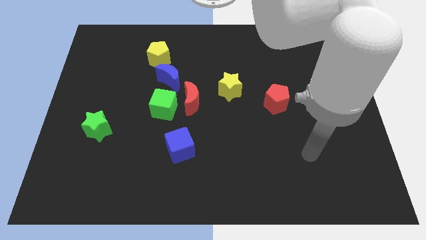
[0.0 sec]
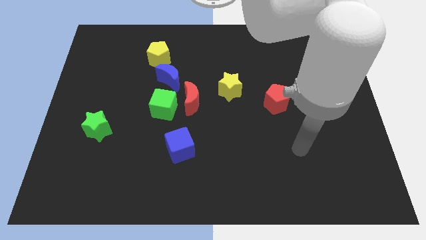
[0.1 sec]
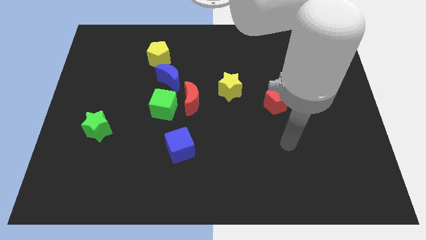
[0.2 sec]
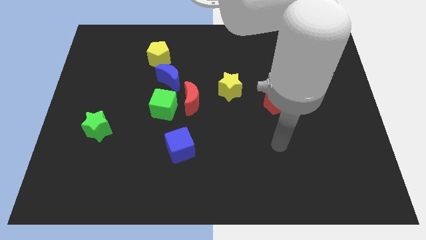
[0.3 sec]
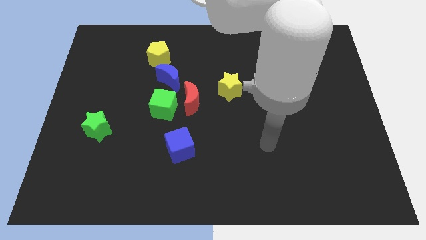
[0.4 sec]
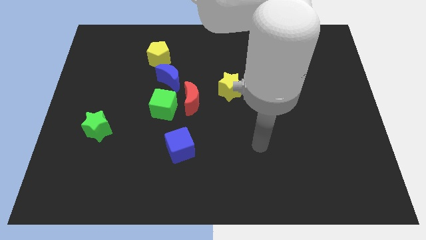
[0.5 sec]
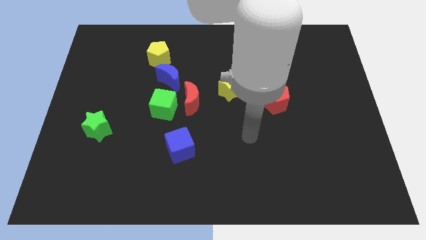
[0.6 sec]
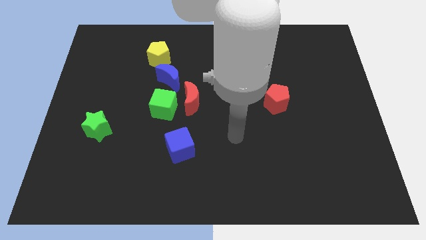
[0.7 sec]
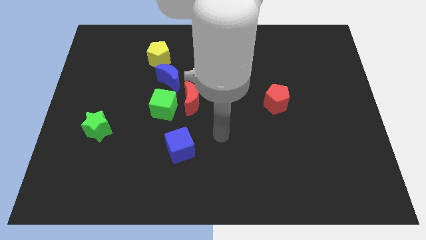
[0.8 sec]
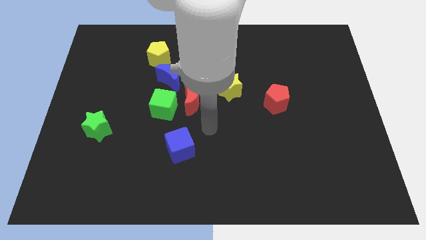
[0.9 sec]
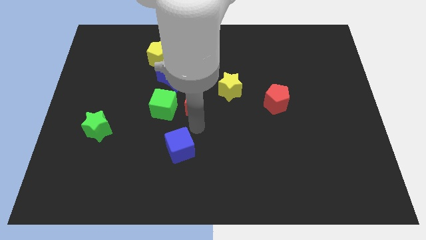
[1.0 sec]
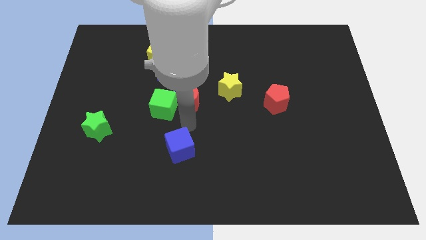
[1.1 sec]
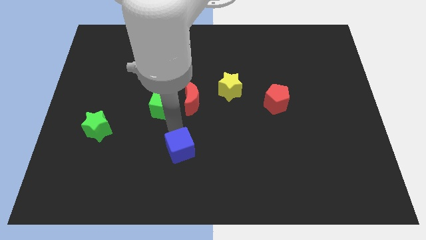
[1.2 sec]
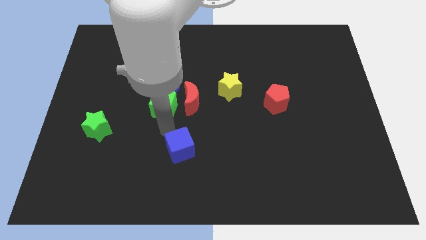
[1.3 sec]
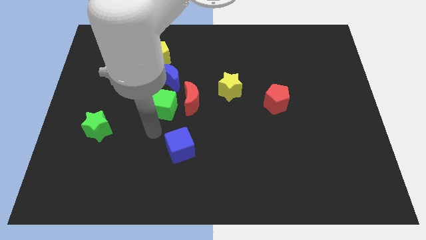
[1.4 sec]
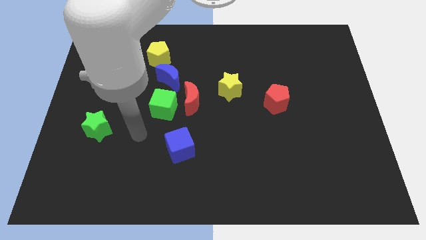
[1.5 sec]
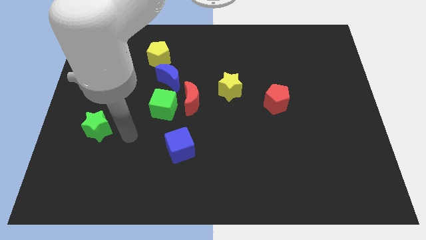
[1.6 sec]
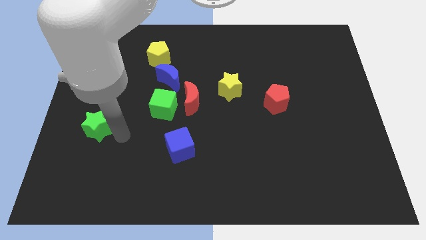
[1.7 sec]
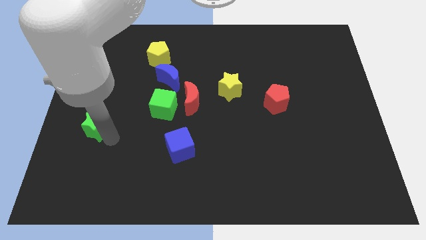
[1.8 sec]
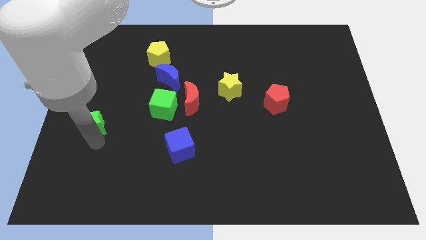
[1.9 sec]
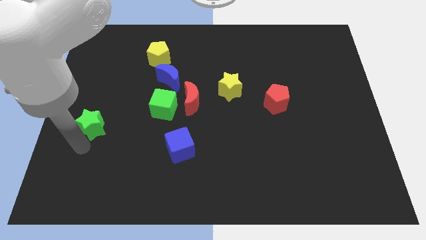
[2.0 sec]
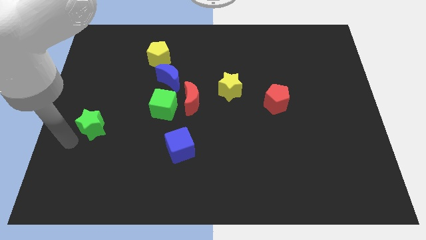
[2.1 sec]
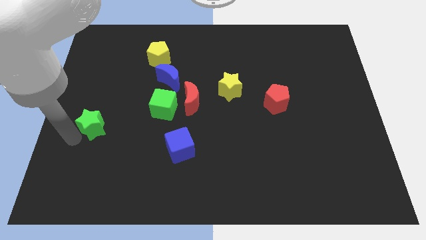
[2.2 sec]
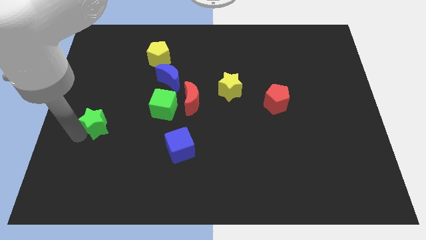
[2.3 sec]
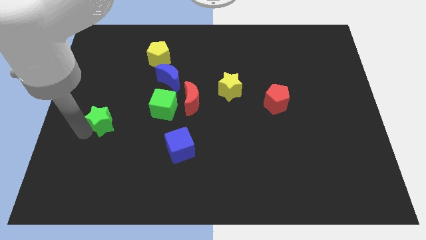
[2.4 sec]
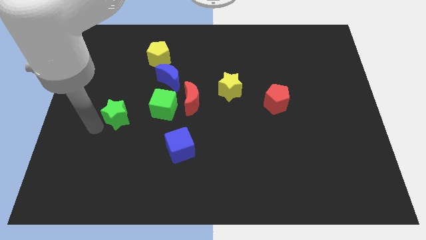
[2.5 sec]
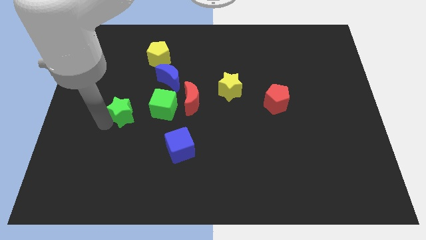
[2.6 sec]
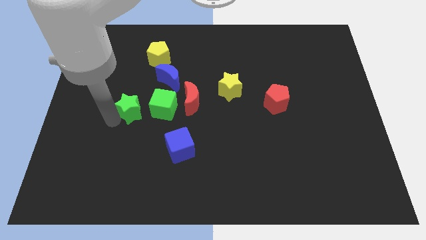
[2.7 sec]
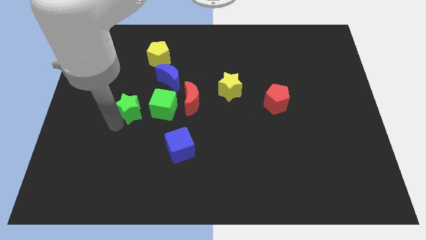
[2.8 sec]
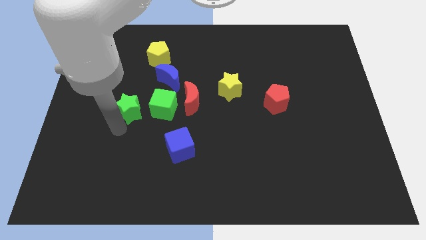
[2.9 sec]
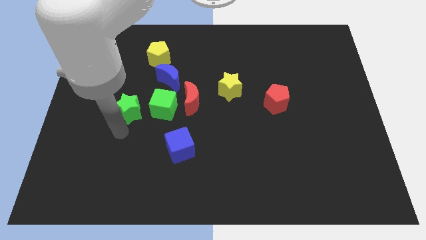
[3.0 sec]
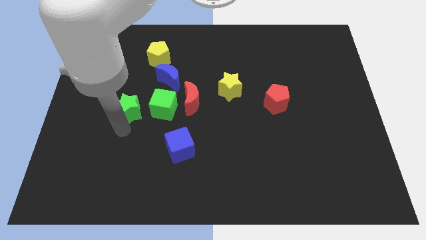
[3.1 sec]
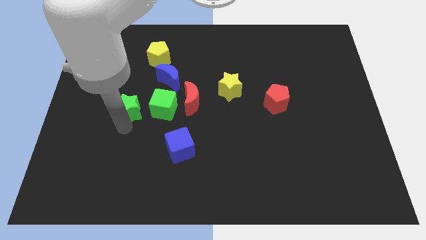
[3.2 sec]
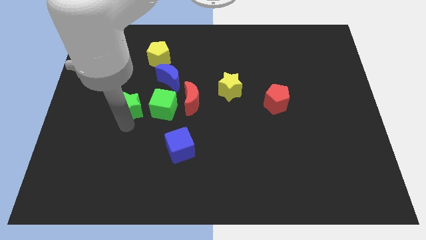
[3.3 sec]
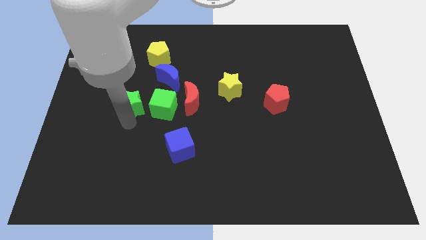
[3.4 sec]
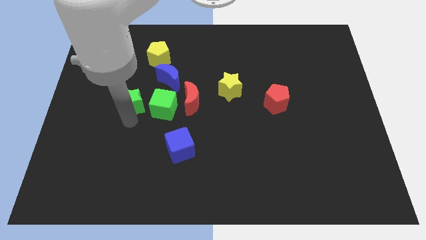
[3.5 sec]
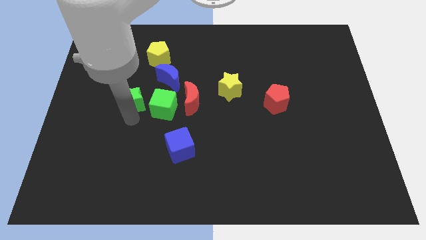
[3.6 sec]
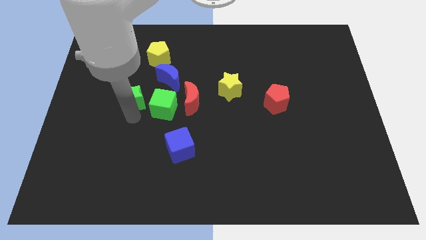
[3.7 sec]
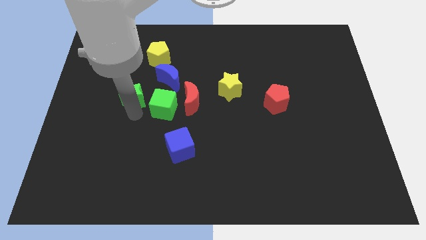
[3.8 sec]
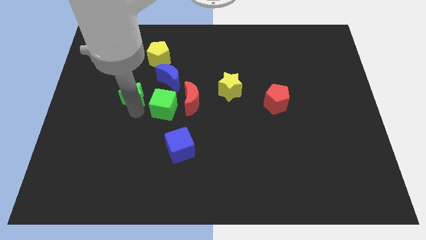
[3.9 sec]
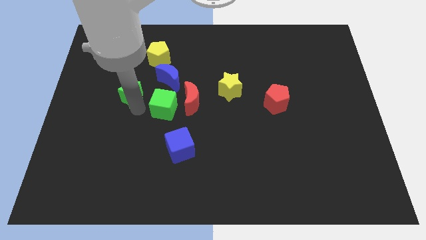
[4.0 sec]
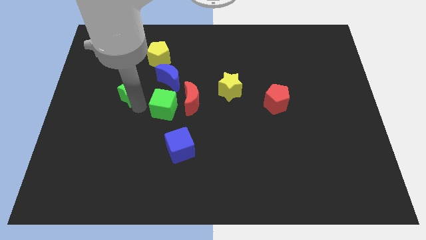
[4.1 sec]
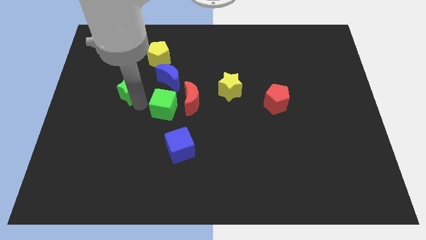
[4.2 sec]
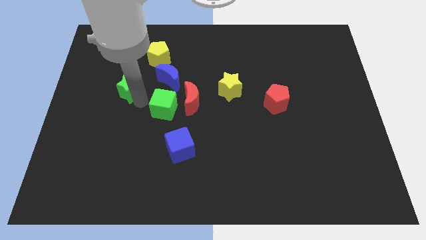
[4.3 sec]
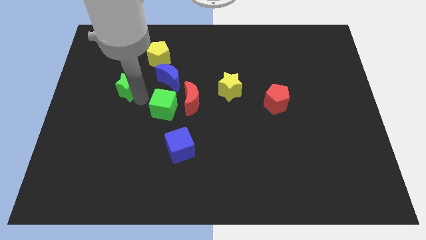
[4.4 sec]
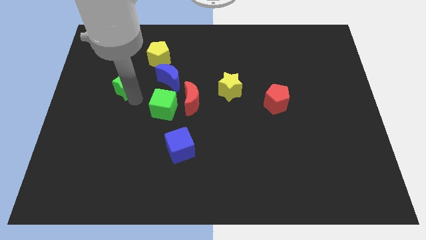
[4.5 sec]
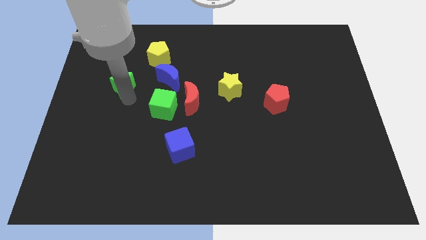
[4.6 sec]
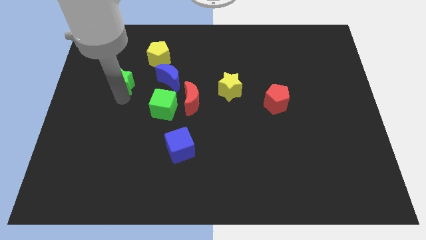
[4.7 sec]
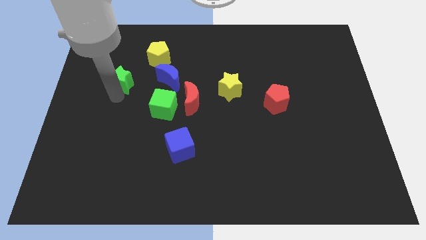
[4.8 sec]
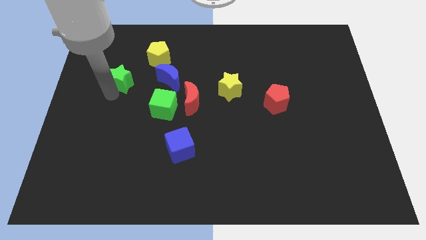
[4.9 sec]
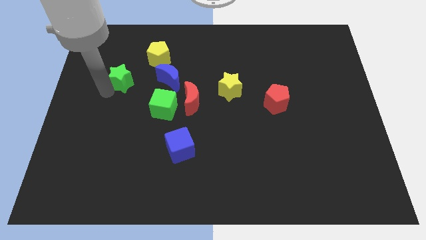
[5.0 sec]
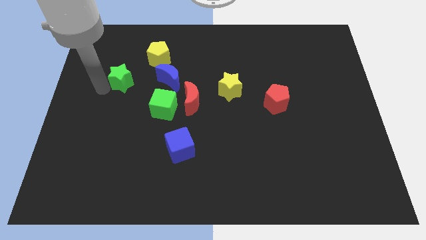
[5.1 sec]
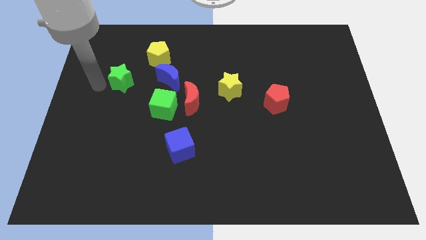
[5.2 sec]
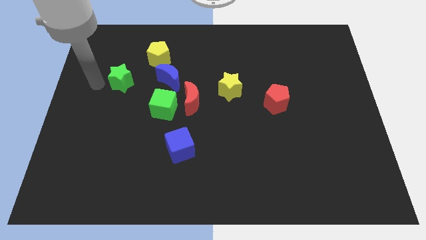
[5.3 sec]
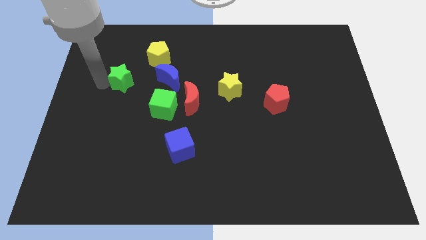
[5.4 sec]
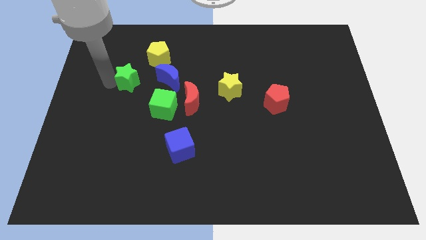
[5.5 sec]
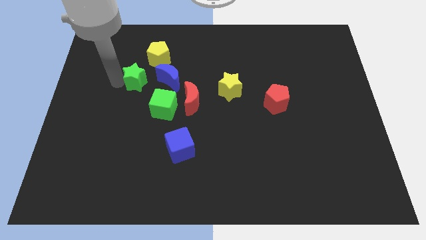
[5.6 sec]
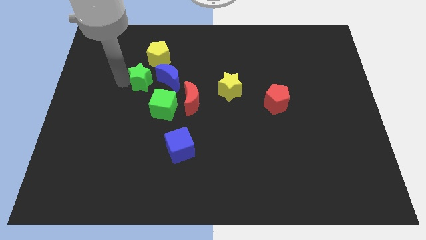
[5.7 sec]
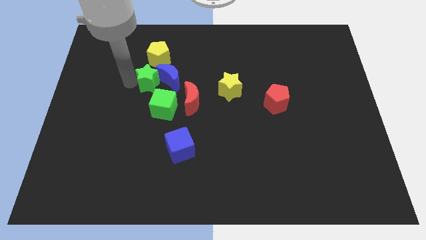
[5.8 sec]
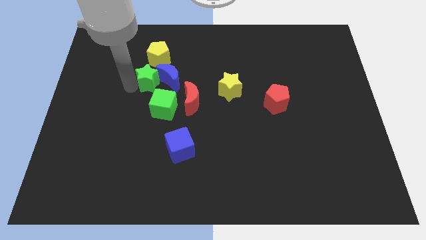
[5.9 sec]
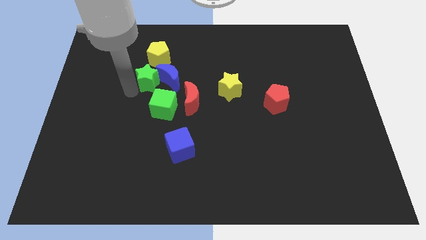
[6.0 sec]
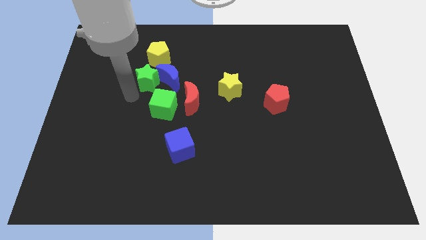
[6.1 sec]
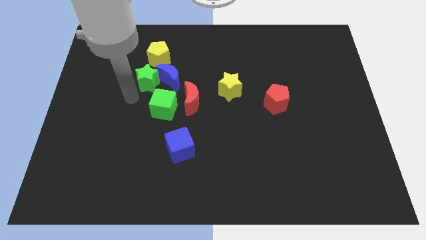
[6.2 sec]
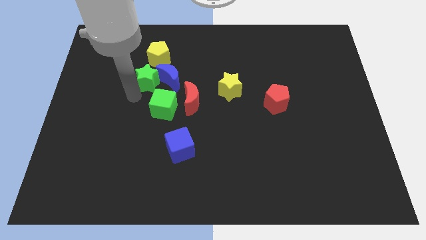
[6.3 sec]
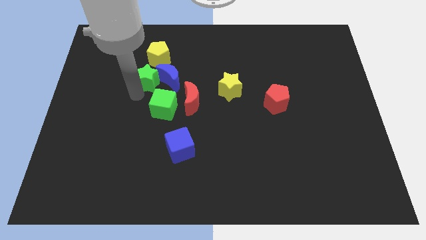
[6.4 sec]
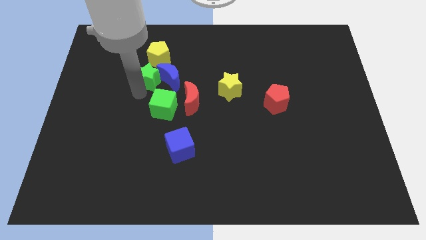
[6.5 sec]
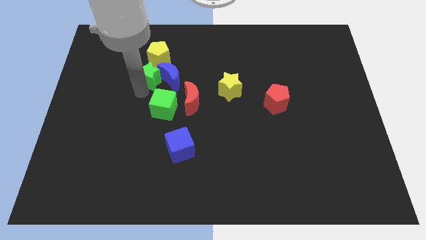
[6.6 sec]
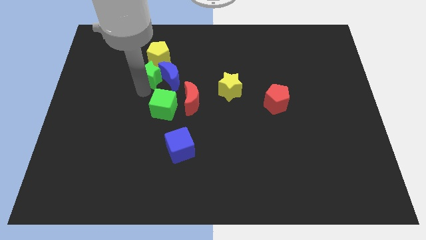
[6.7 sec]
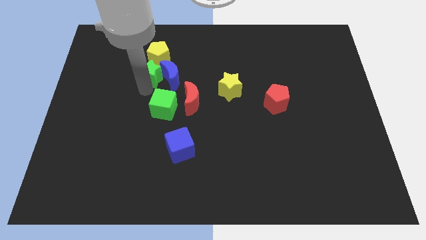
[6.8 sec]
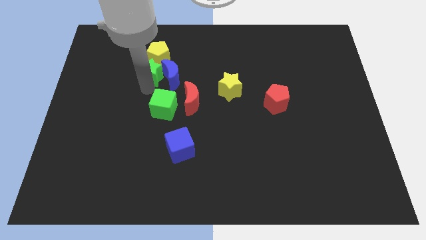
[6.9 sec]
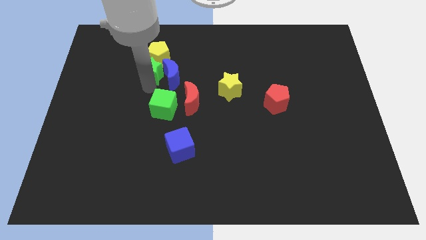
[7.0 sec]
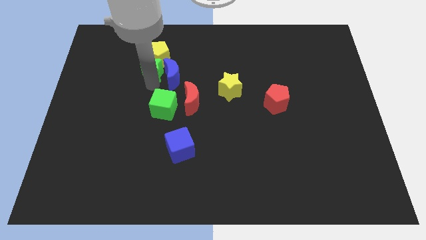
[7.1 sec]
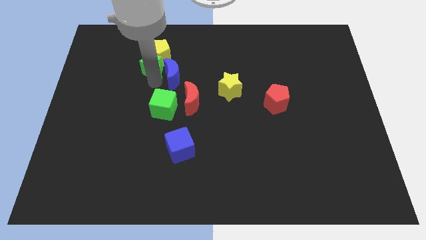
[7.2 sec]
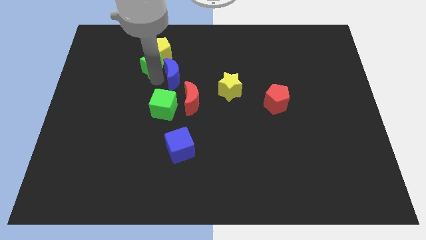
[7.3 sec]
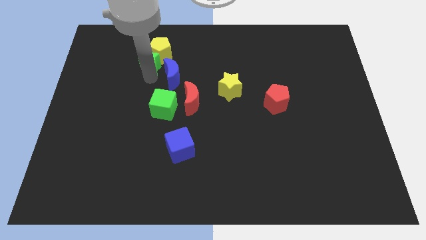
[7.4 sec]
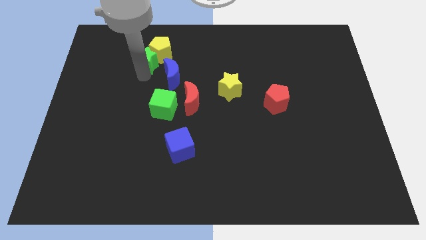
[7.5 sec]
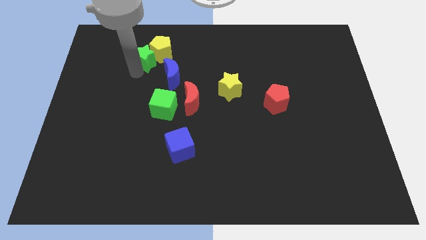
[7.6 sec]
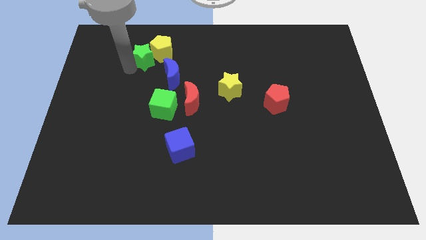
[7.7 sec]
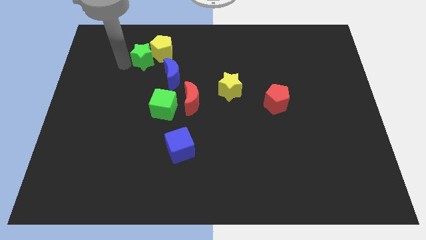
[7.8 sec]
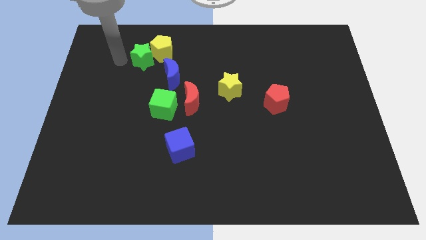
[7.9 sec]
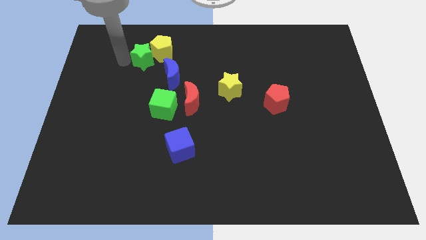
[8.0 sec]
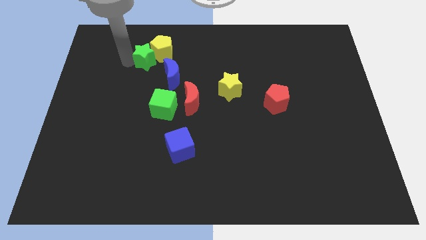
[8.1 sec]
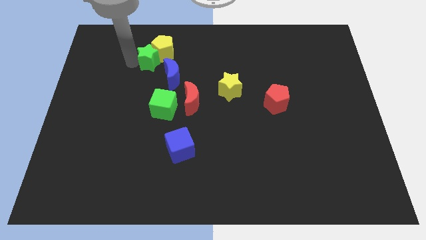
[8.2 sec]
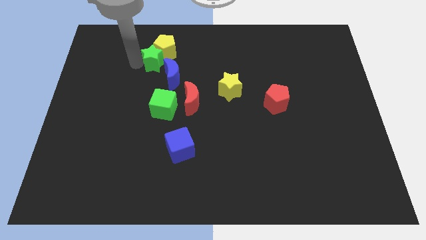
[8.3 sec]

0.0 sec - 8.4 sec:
slide the green star upwards and right diagonally
